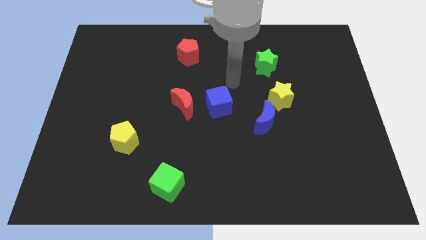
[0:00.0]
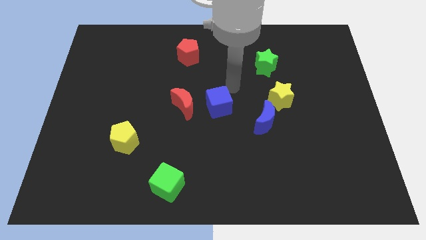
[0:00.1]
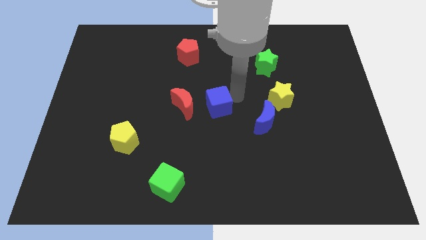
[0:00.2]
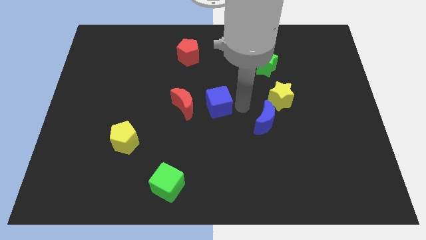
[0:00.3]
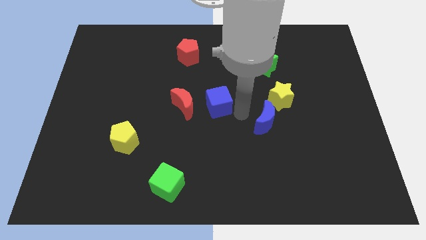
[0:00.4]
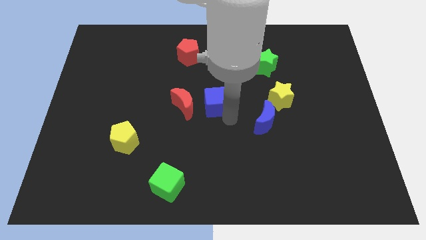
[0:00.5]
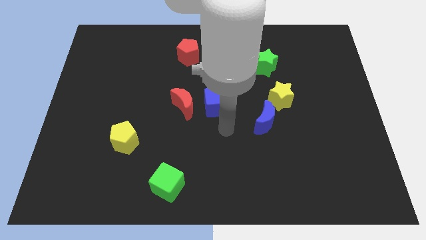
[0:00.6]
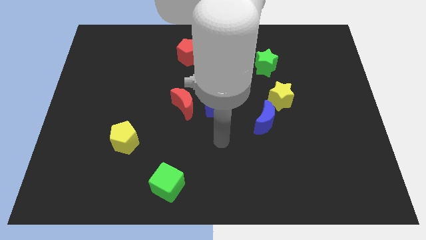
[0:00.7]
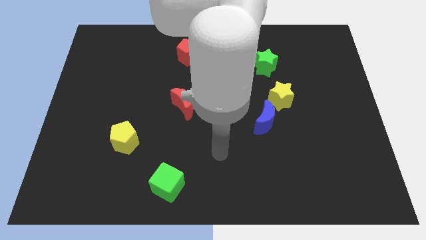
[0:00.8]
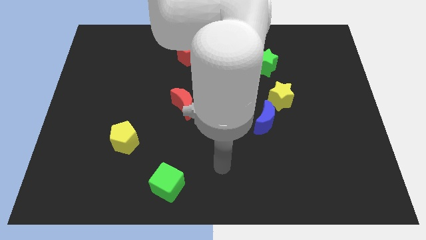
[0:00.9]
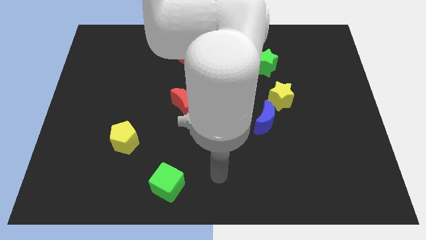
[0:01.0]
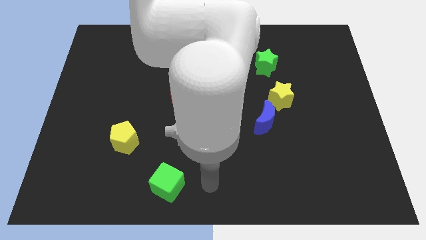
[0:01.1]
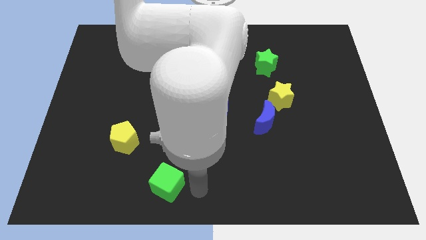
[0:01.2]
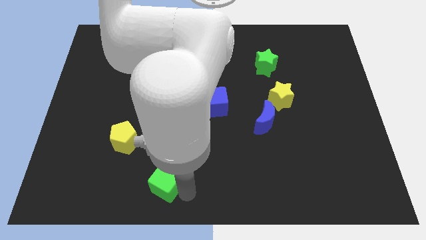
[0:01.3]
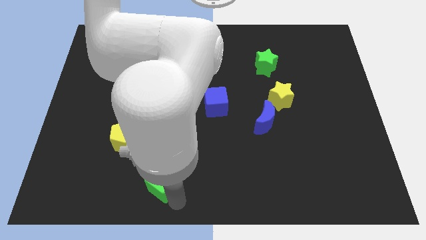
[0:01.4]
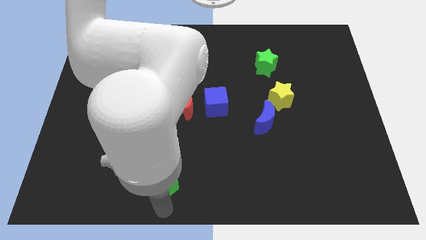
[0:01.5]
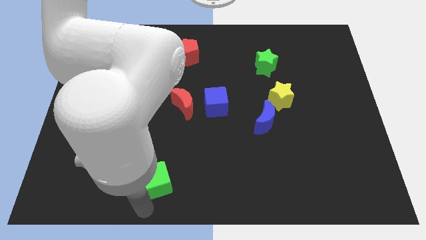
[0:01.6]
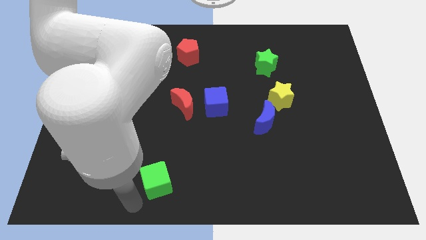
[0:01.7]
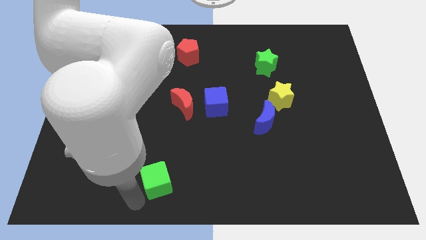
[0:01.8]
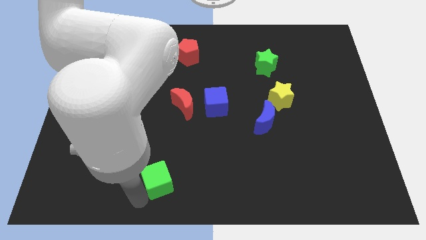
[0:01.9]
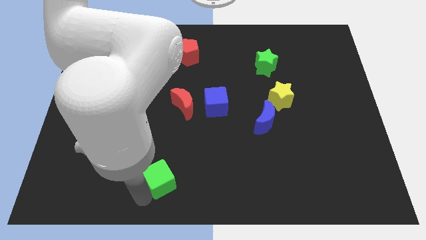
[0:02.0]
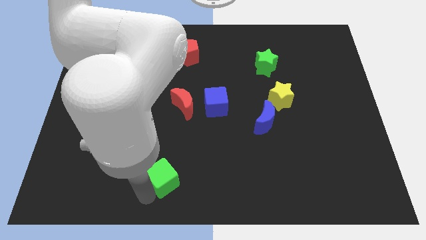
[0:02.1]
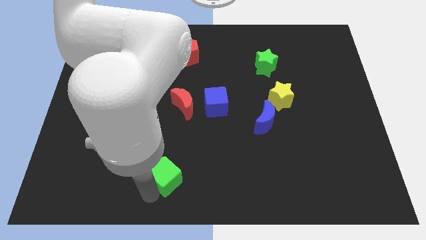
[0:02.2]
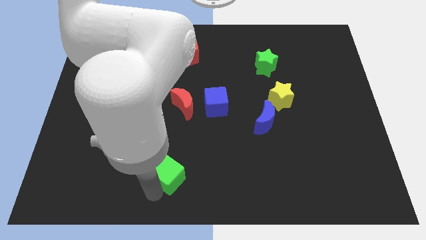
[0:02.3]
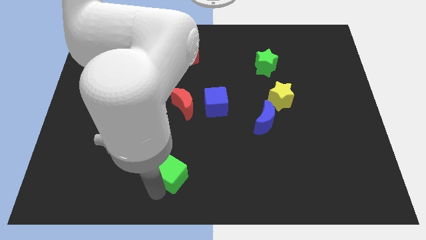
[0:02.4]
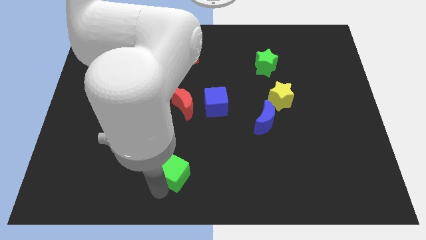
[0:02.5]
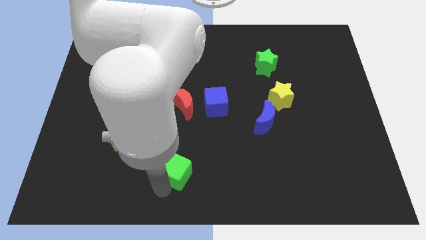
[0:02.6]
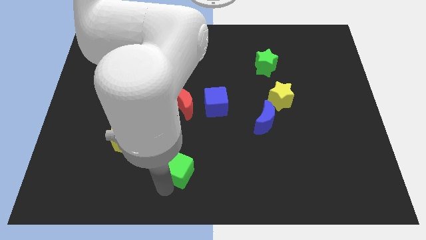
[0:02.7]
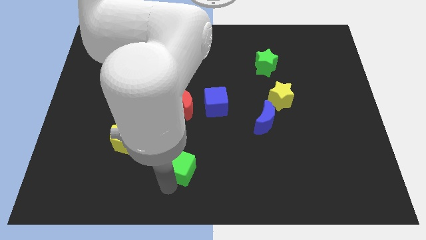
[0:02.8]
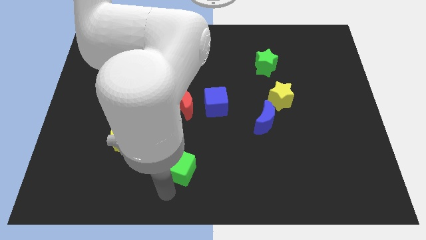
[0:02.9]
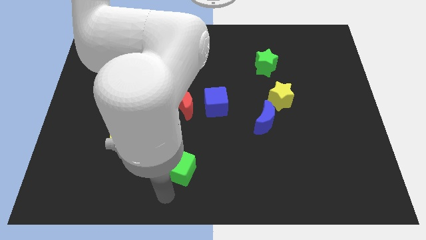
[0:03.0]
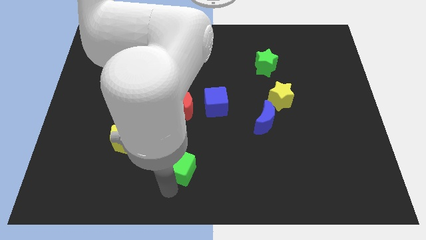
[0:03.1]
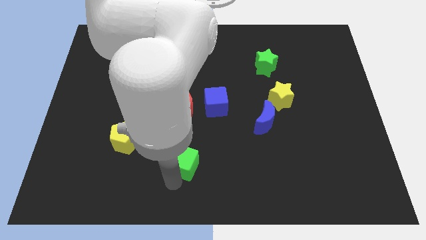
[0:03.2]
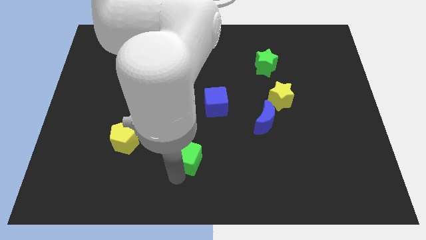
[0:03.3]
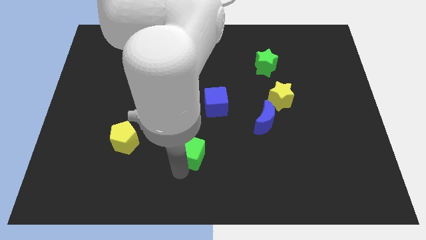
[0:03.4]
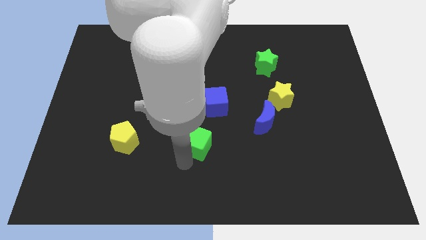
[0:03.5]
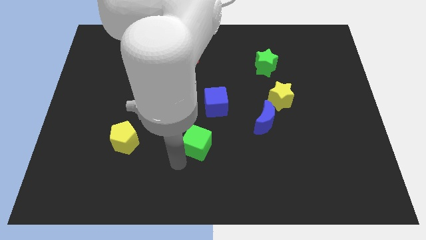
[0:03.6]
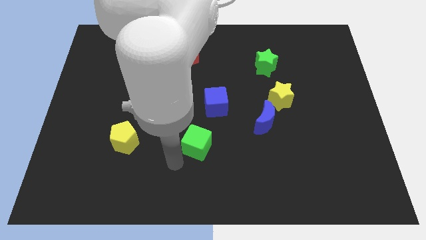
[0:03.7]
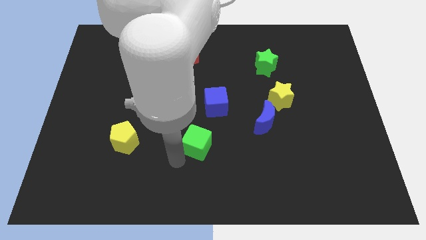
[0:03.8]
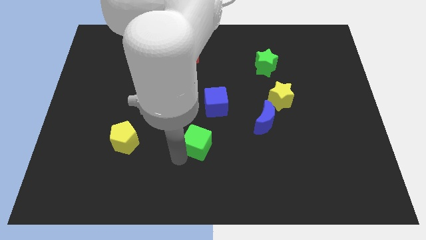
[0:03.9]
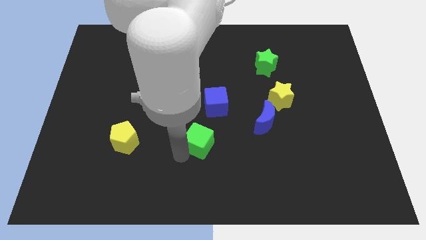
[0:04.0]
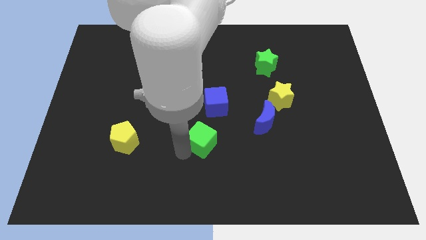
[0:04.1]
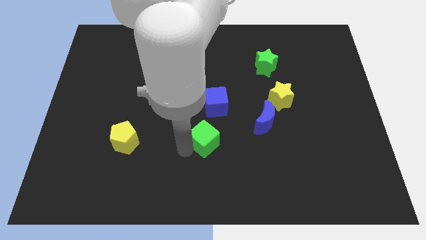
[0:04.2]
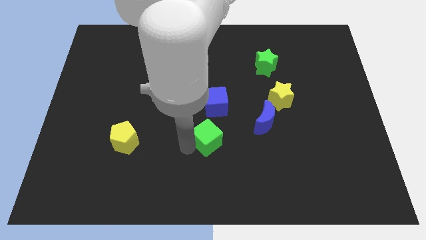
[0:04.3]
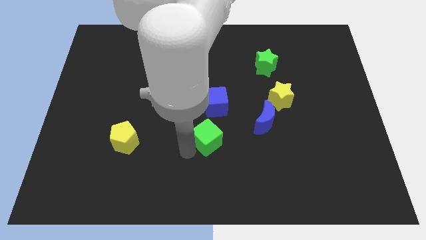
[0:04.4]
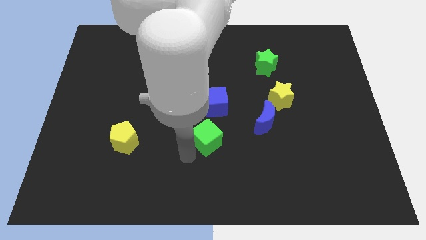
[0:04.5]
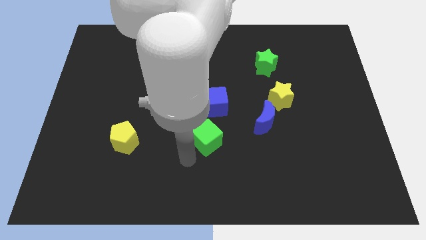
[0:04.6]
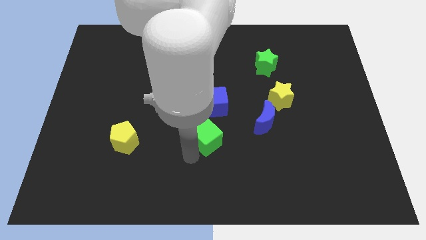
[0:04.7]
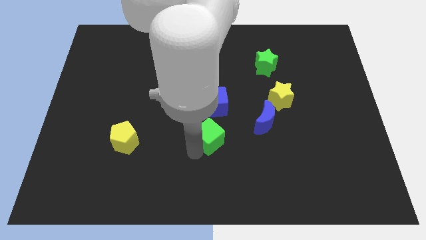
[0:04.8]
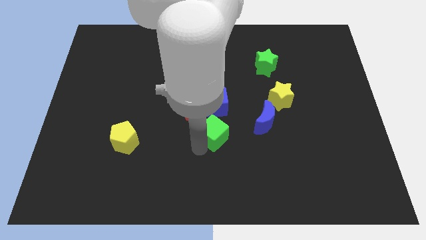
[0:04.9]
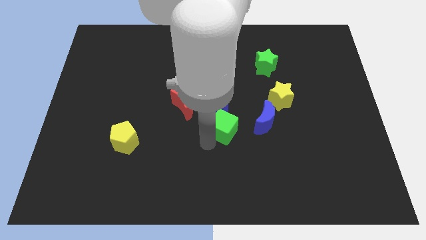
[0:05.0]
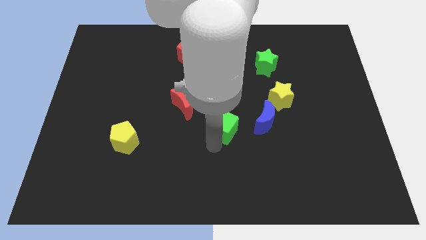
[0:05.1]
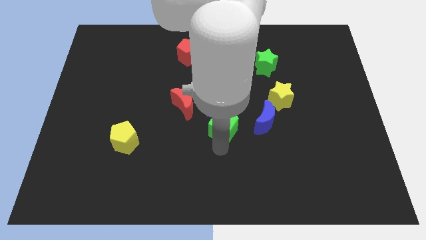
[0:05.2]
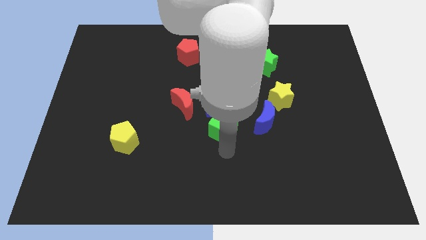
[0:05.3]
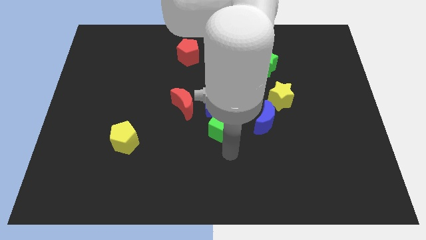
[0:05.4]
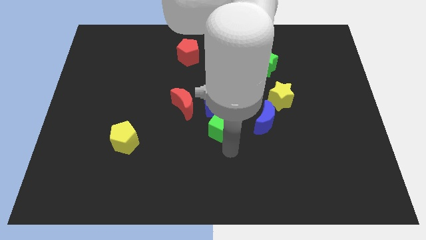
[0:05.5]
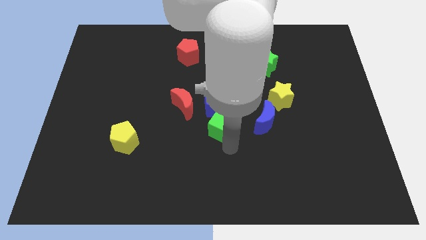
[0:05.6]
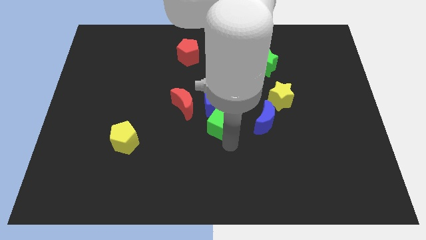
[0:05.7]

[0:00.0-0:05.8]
put the green cube towards the blue cube

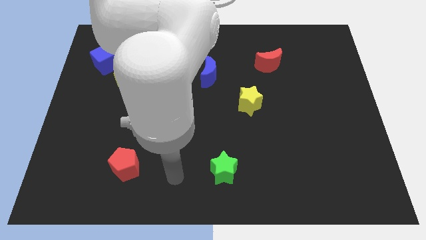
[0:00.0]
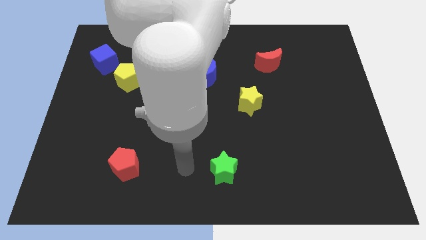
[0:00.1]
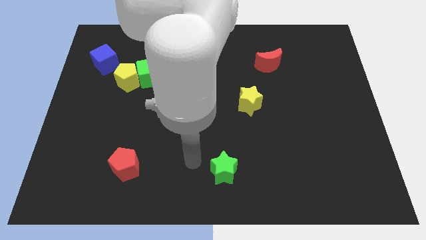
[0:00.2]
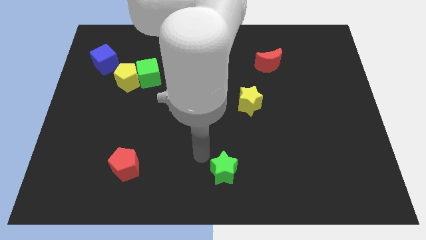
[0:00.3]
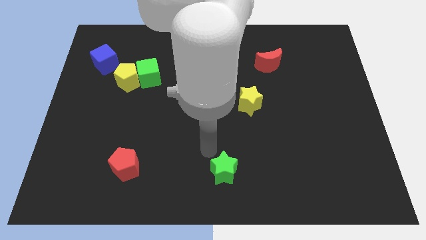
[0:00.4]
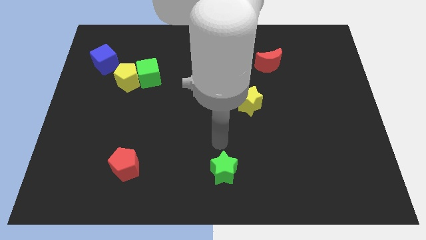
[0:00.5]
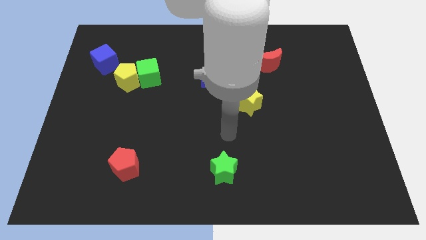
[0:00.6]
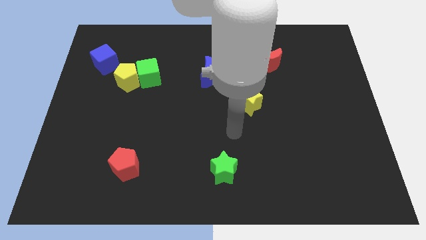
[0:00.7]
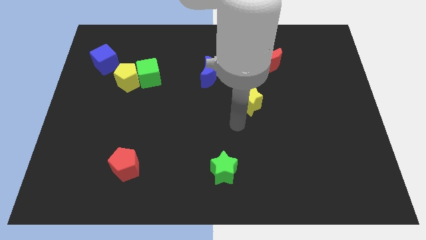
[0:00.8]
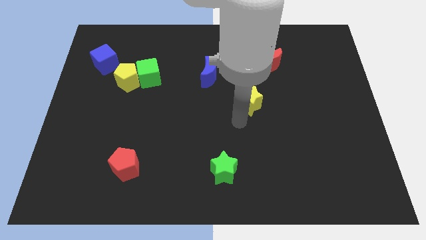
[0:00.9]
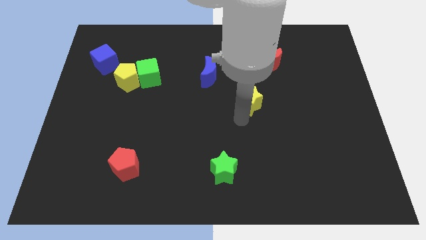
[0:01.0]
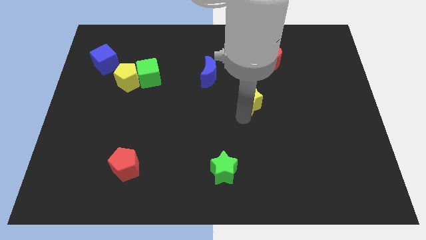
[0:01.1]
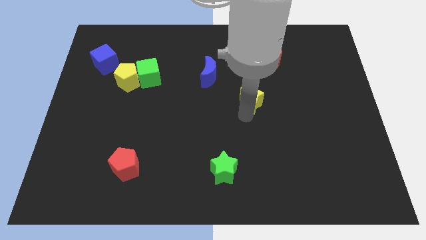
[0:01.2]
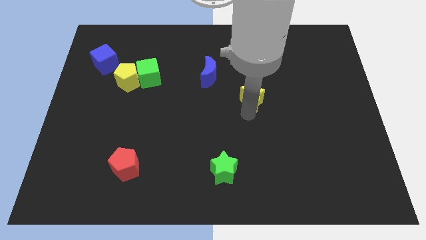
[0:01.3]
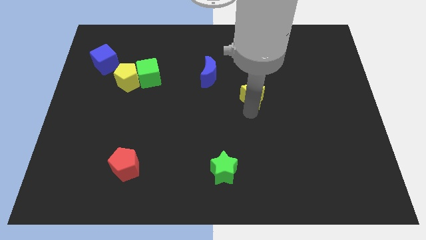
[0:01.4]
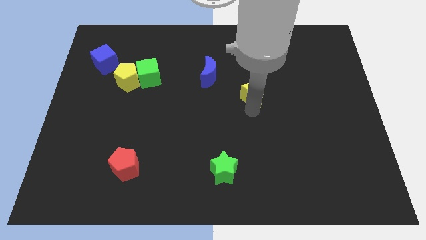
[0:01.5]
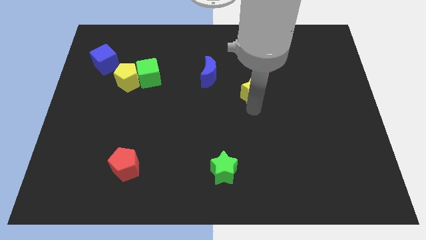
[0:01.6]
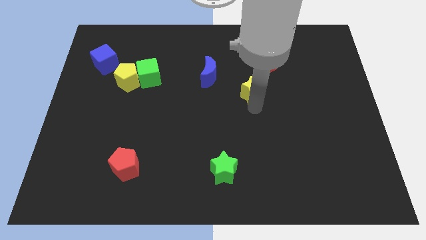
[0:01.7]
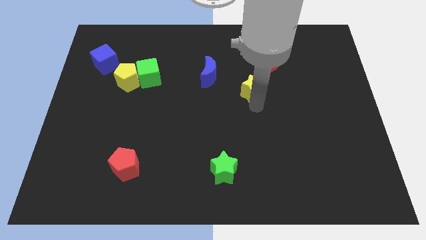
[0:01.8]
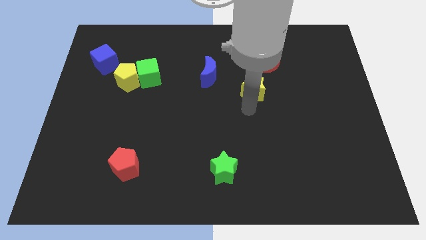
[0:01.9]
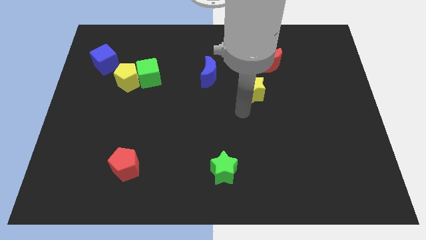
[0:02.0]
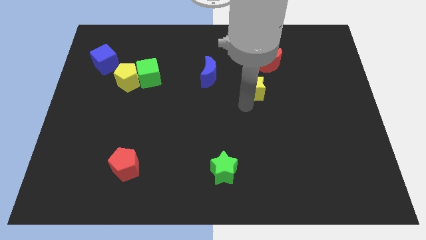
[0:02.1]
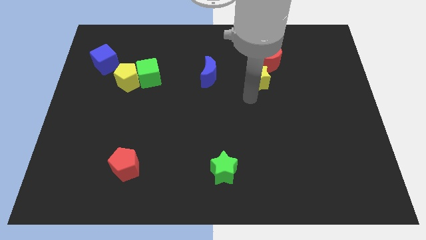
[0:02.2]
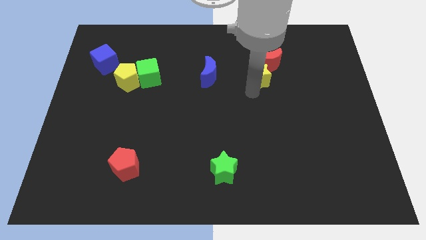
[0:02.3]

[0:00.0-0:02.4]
push the yellow star next to the red moon
